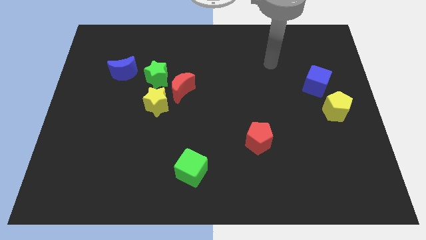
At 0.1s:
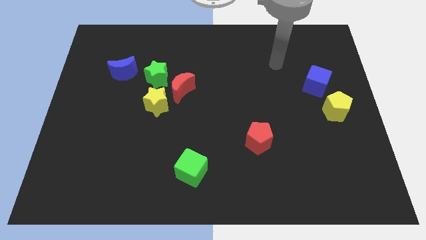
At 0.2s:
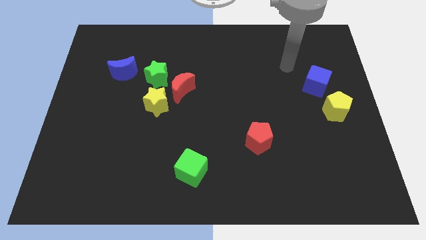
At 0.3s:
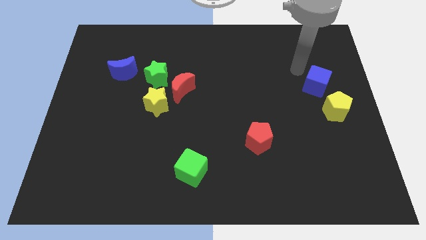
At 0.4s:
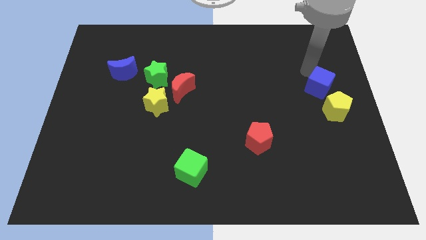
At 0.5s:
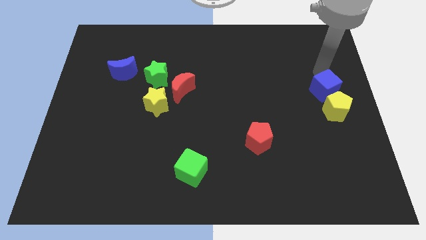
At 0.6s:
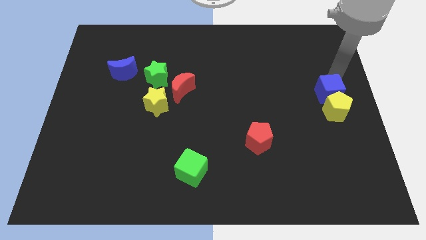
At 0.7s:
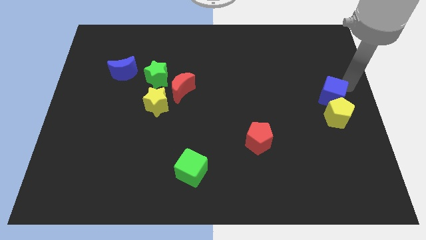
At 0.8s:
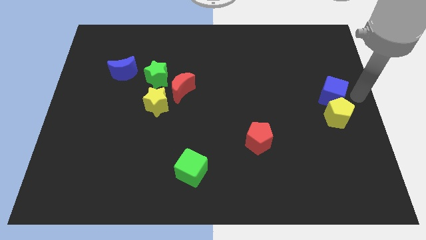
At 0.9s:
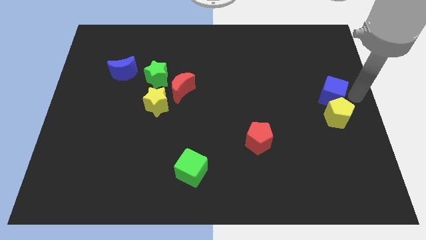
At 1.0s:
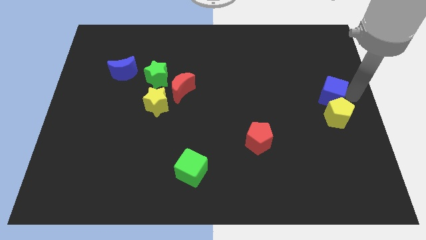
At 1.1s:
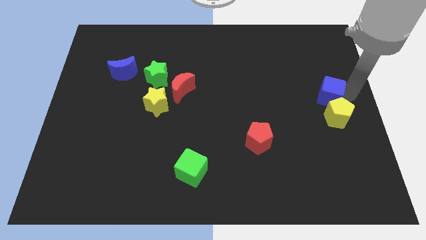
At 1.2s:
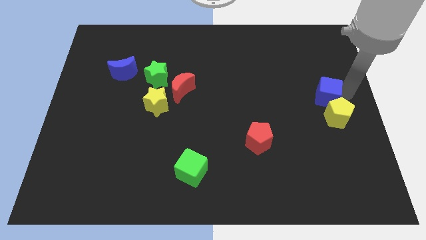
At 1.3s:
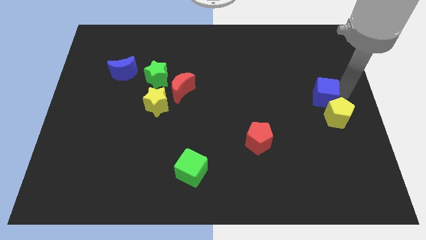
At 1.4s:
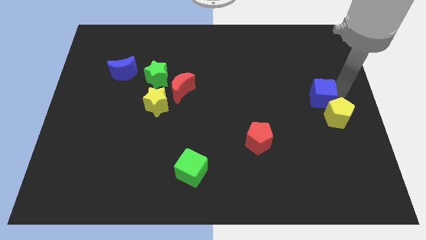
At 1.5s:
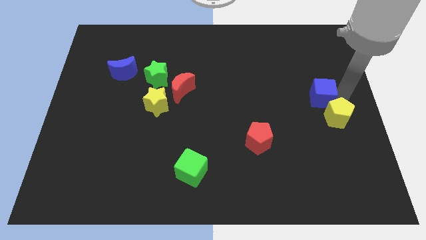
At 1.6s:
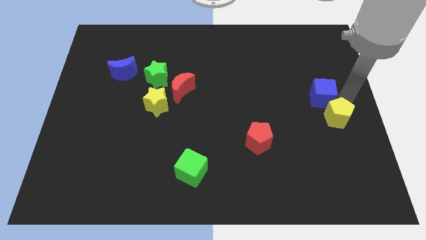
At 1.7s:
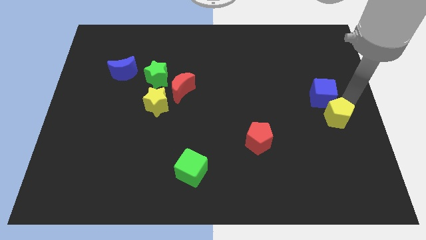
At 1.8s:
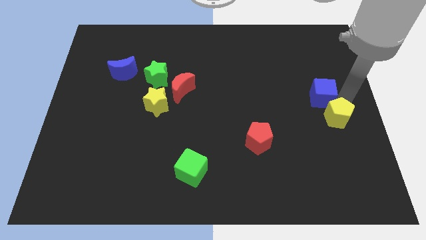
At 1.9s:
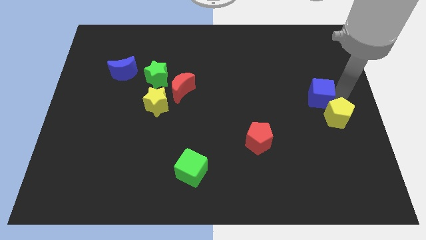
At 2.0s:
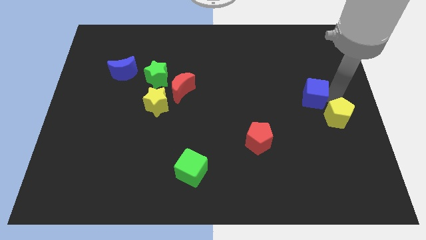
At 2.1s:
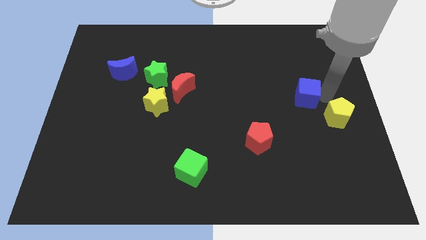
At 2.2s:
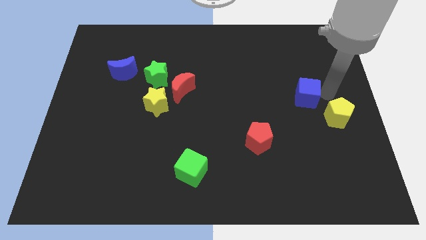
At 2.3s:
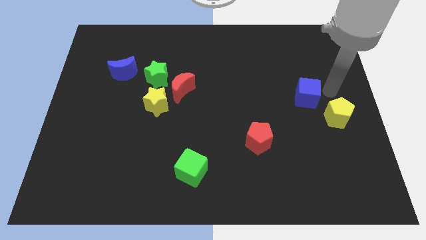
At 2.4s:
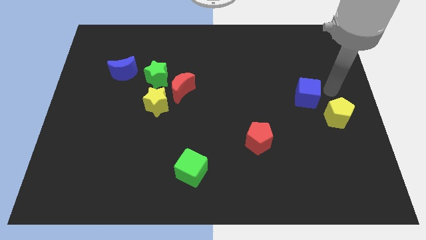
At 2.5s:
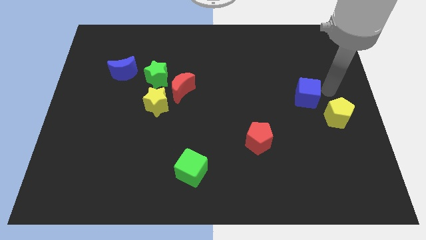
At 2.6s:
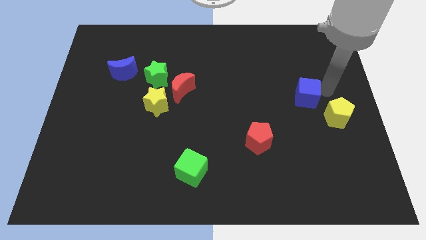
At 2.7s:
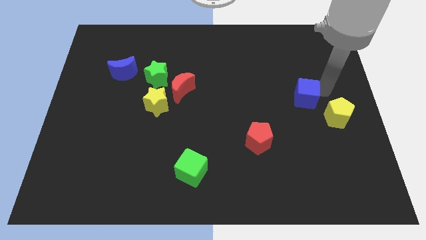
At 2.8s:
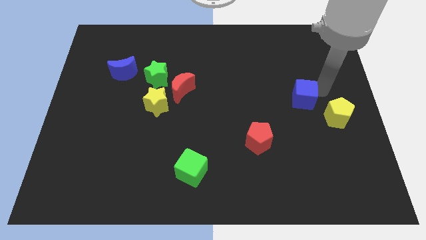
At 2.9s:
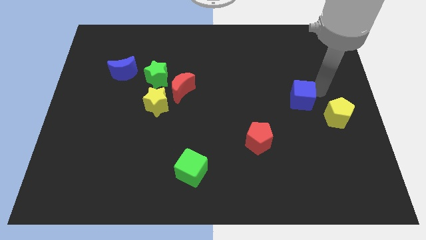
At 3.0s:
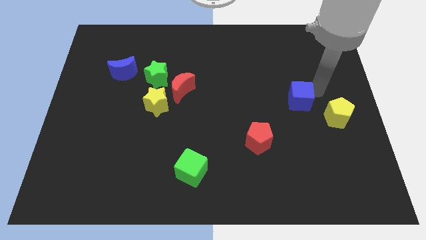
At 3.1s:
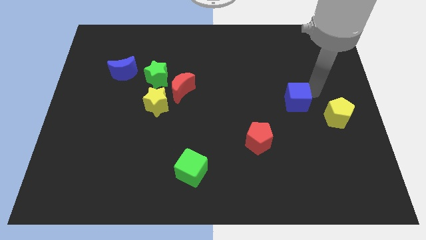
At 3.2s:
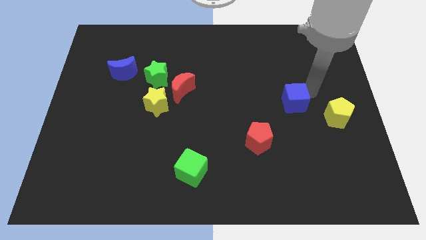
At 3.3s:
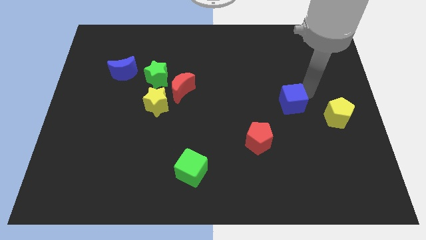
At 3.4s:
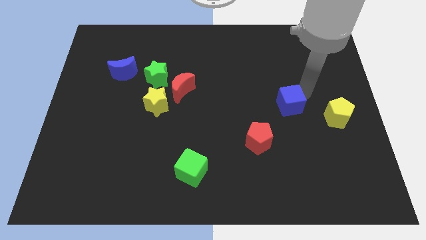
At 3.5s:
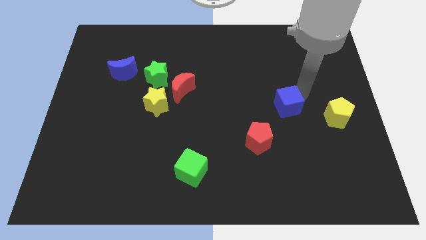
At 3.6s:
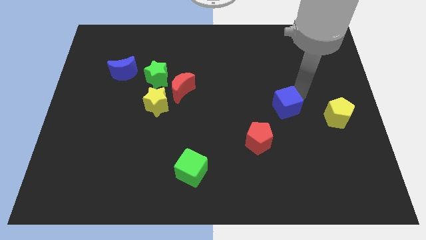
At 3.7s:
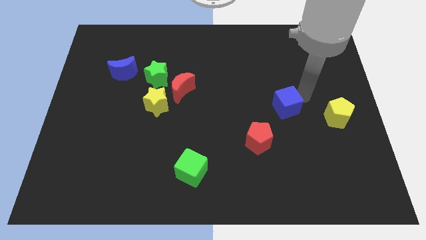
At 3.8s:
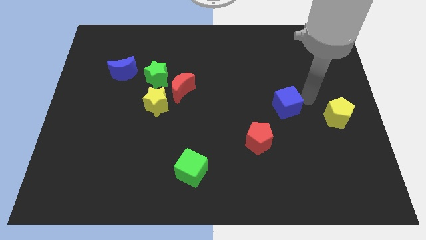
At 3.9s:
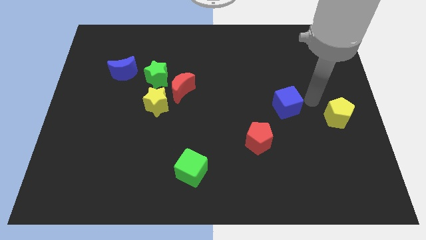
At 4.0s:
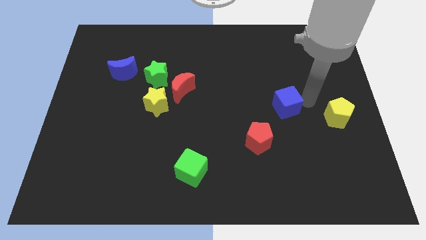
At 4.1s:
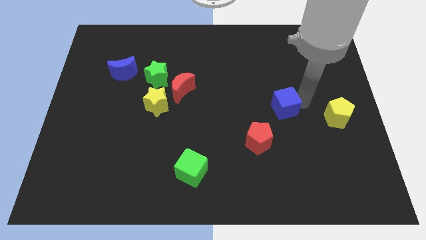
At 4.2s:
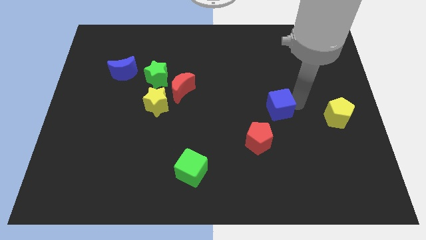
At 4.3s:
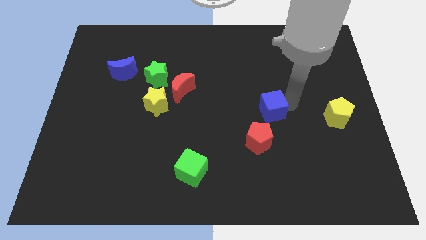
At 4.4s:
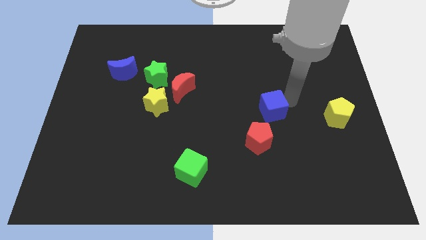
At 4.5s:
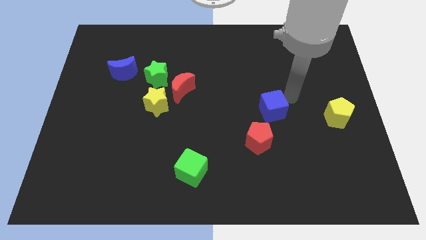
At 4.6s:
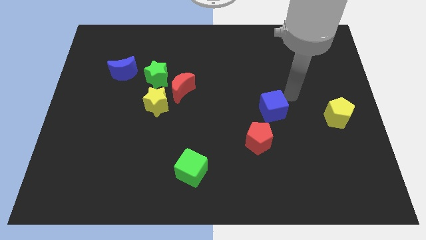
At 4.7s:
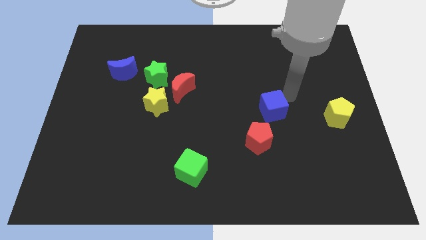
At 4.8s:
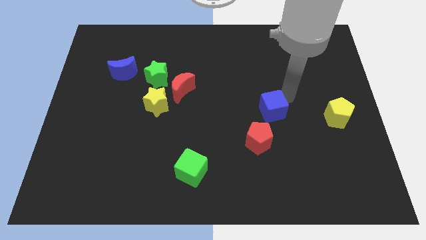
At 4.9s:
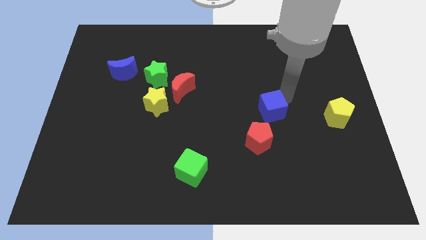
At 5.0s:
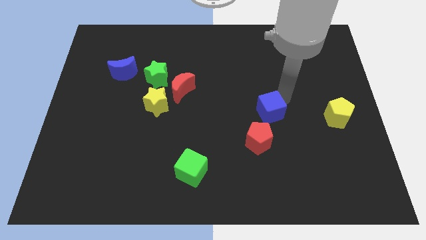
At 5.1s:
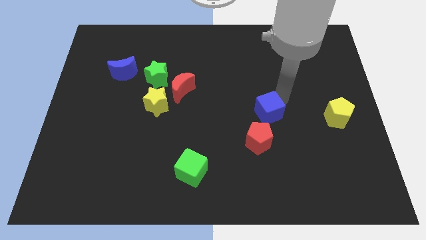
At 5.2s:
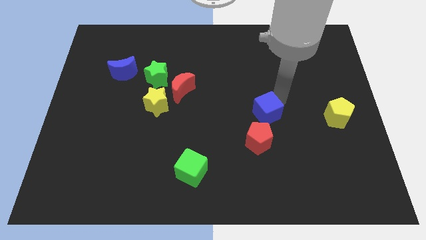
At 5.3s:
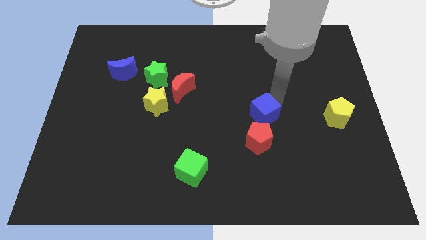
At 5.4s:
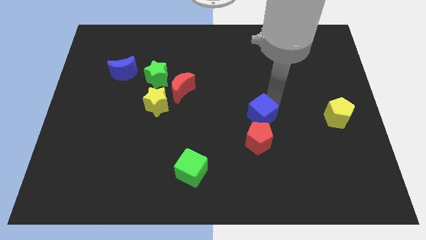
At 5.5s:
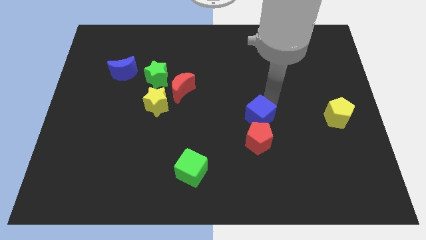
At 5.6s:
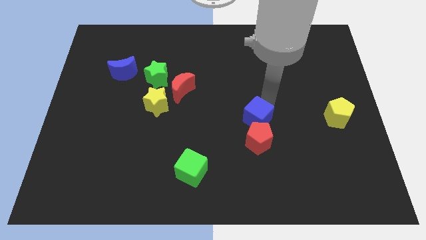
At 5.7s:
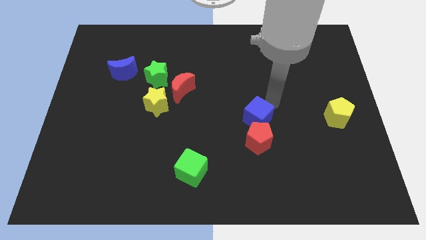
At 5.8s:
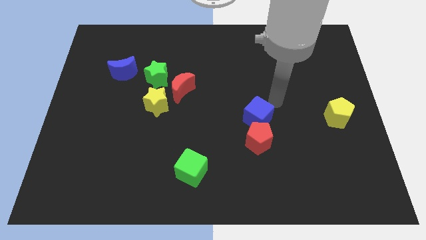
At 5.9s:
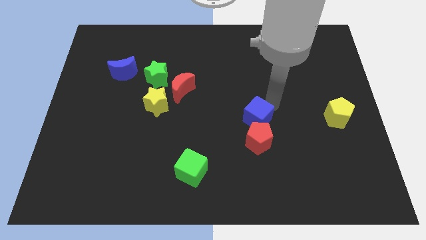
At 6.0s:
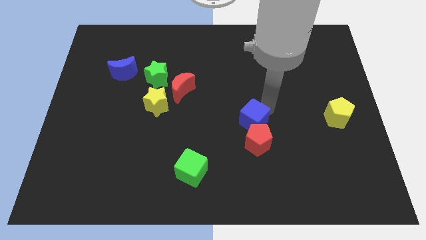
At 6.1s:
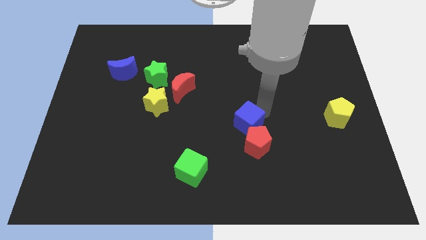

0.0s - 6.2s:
push the blue cube down and to the left

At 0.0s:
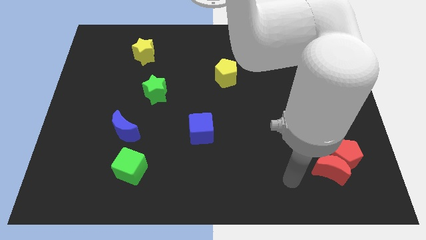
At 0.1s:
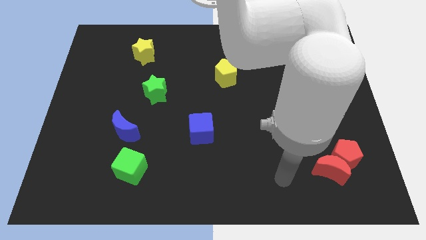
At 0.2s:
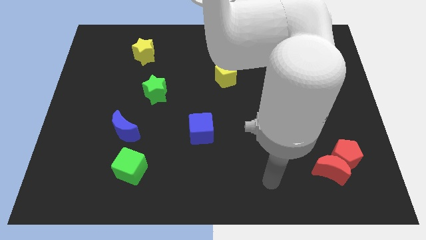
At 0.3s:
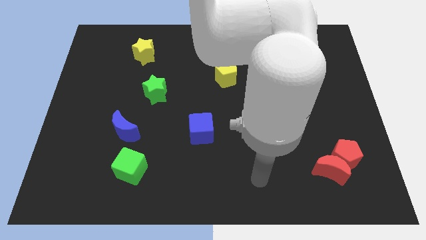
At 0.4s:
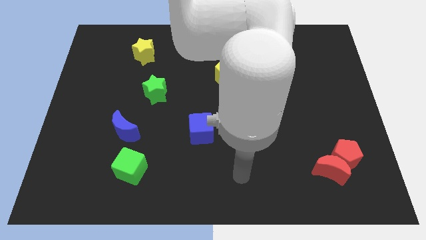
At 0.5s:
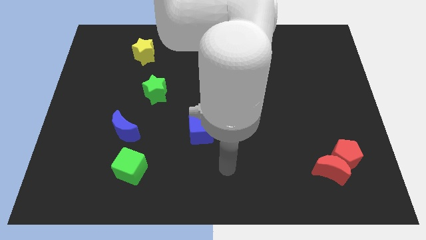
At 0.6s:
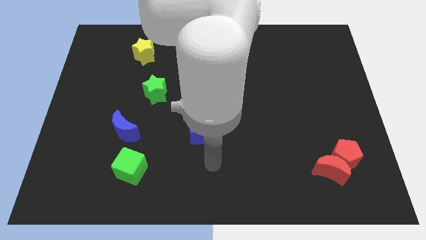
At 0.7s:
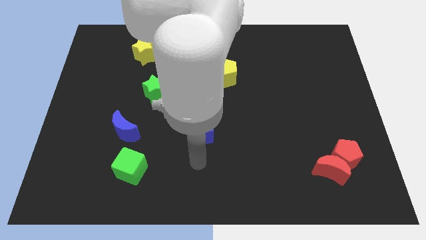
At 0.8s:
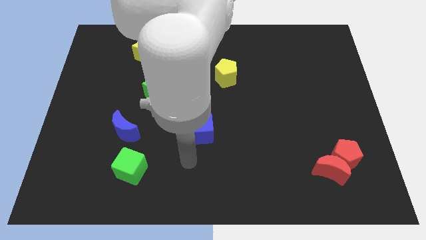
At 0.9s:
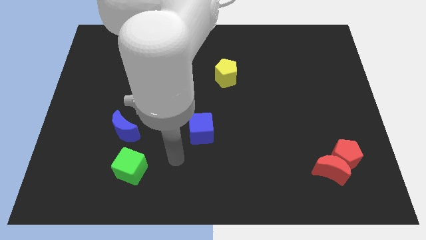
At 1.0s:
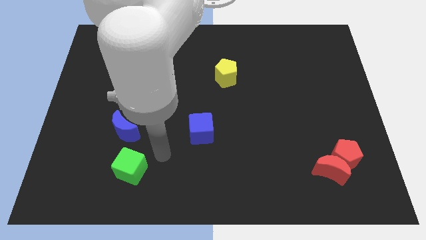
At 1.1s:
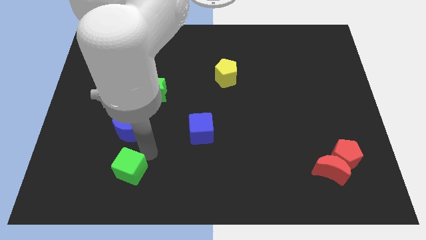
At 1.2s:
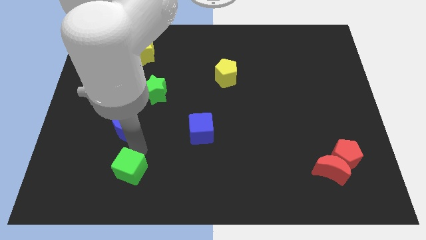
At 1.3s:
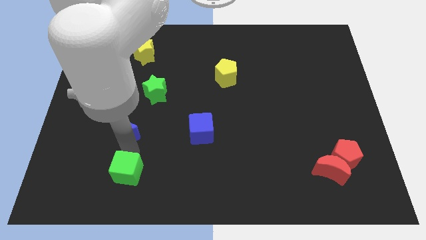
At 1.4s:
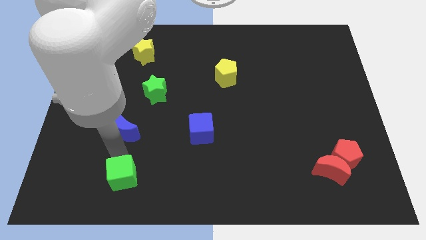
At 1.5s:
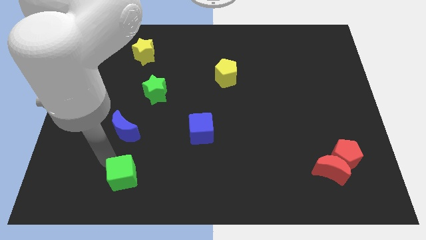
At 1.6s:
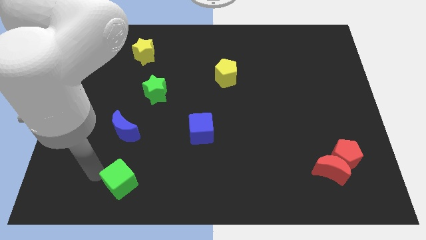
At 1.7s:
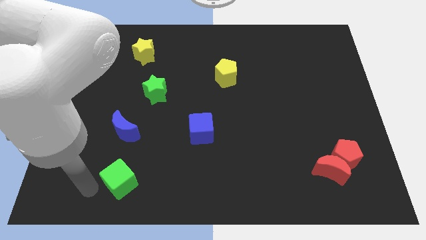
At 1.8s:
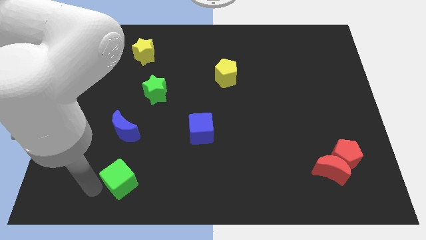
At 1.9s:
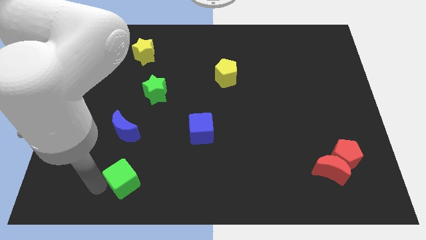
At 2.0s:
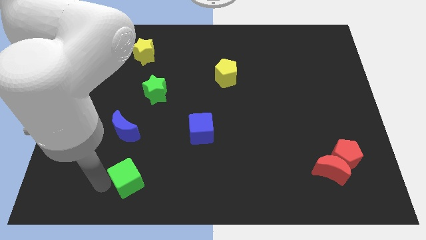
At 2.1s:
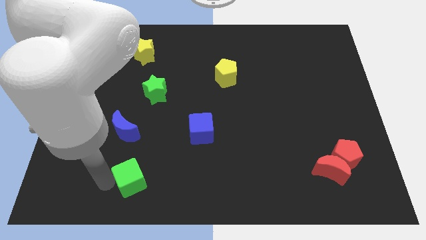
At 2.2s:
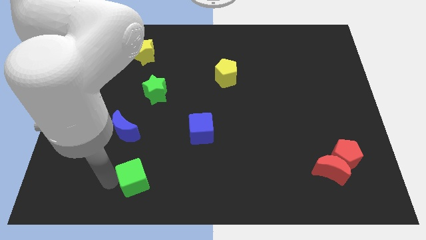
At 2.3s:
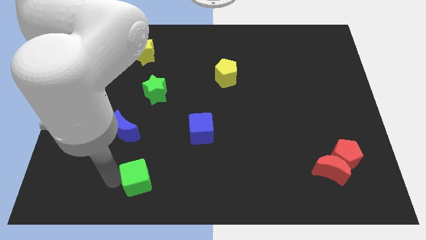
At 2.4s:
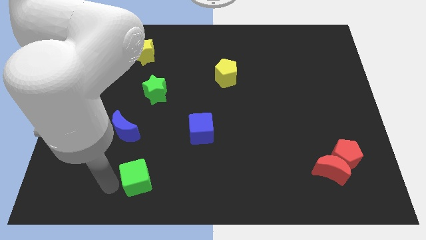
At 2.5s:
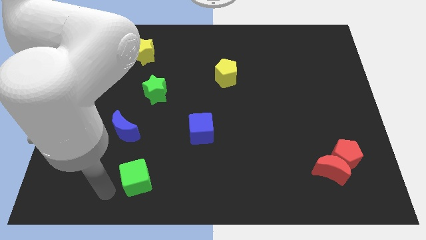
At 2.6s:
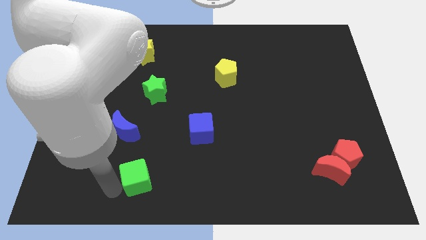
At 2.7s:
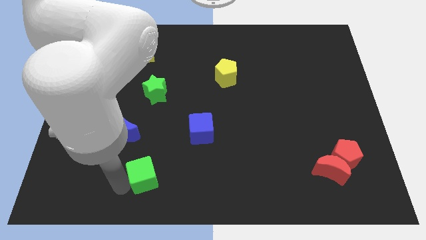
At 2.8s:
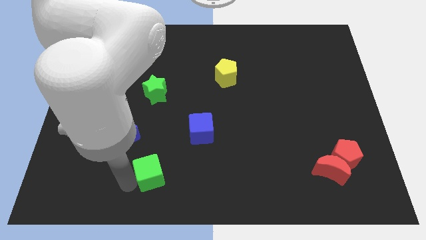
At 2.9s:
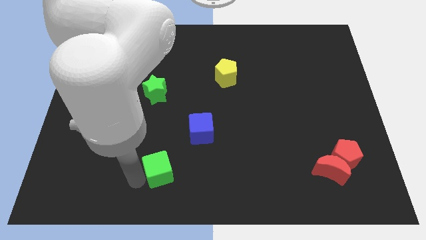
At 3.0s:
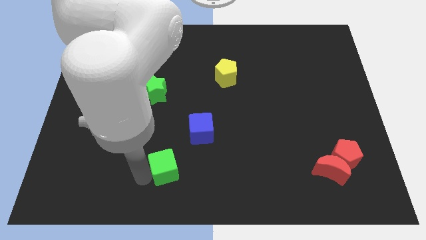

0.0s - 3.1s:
move the green cube a bit right
